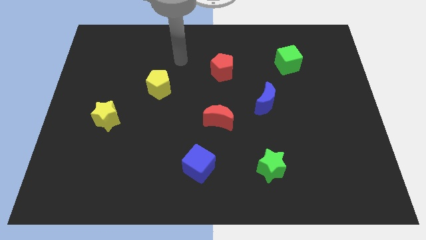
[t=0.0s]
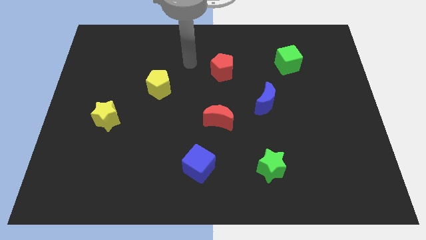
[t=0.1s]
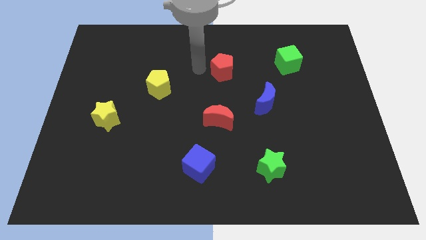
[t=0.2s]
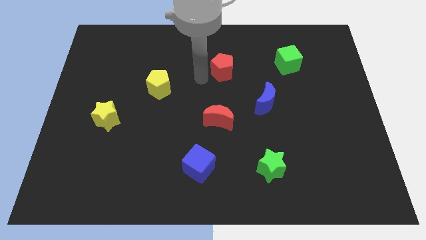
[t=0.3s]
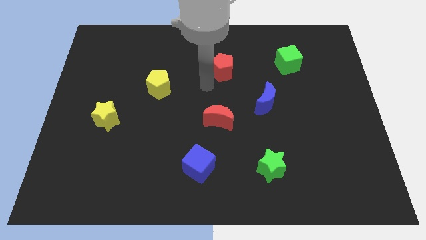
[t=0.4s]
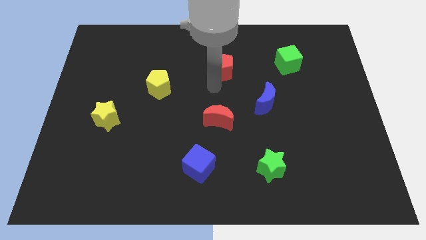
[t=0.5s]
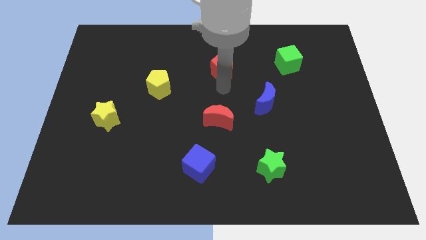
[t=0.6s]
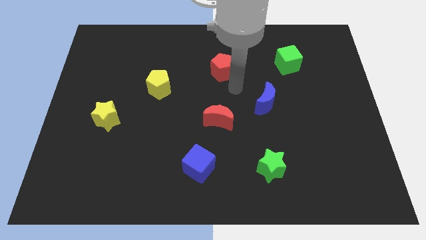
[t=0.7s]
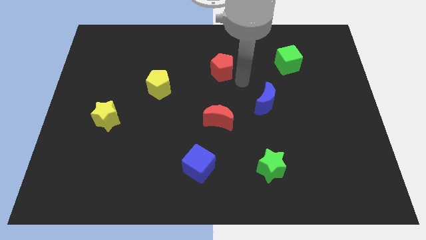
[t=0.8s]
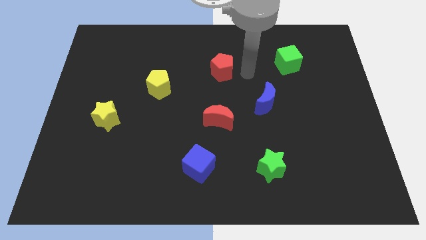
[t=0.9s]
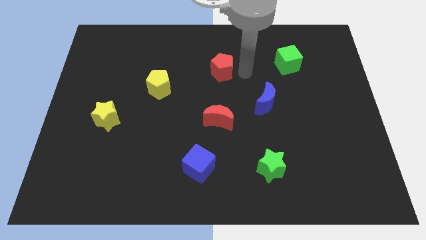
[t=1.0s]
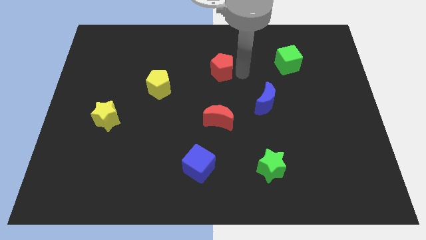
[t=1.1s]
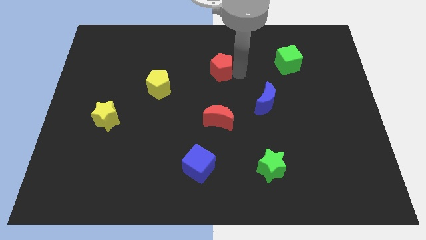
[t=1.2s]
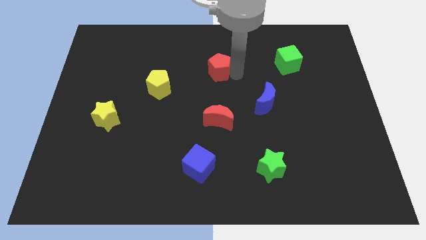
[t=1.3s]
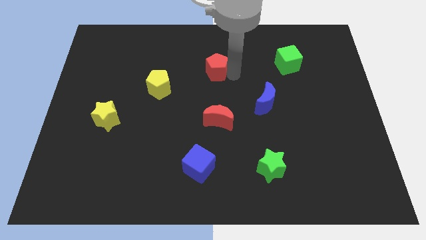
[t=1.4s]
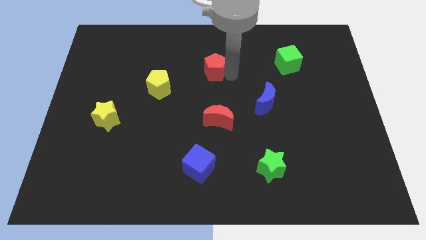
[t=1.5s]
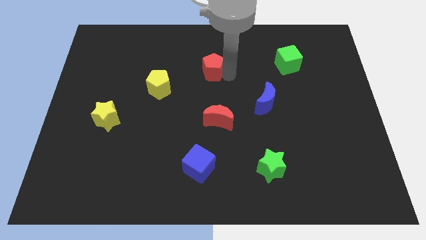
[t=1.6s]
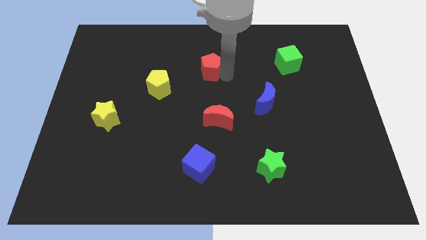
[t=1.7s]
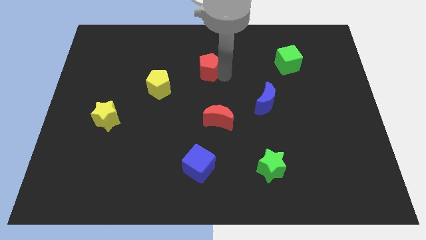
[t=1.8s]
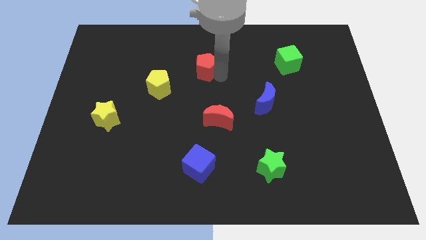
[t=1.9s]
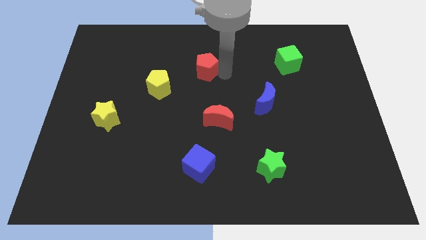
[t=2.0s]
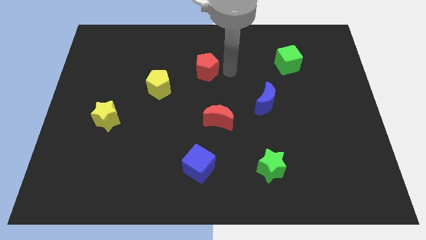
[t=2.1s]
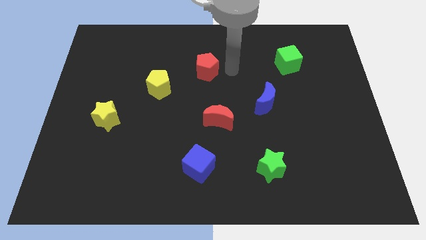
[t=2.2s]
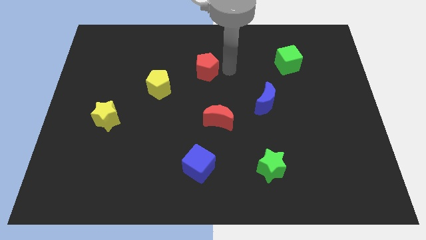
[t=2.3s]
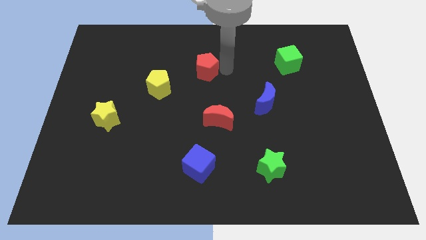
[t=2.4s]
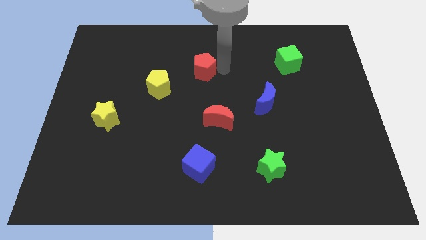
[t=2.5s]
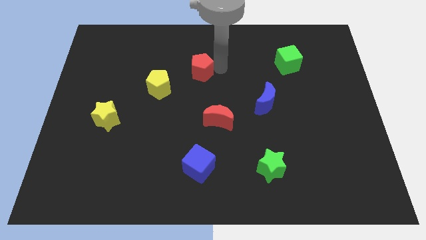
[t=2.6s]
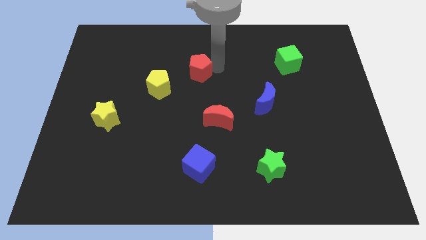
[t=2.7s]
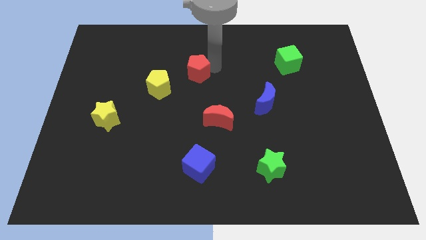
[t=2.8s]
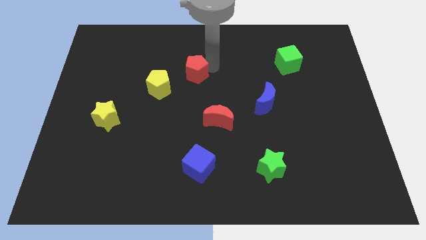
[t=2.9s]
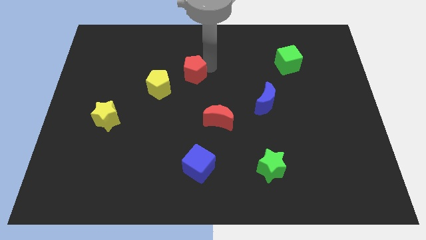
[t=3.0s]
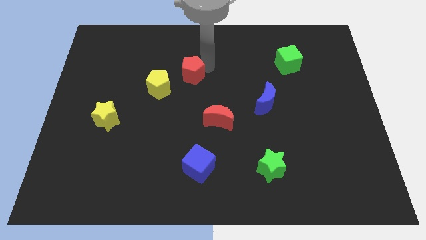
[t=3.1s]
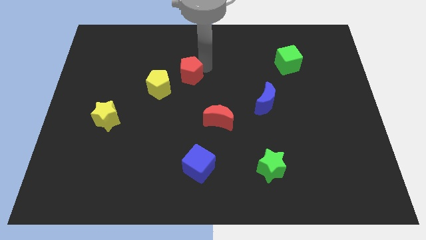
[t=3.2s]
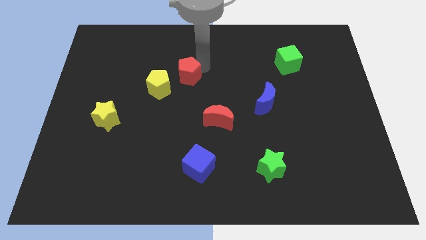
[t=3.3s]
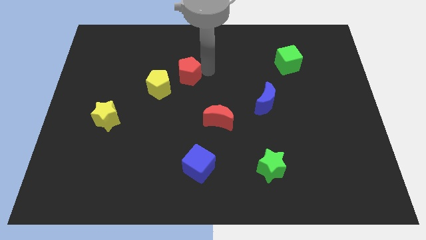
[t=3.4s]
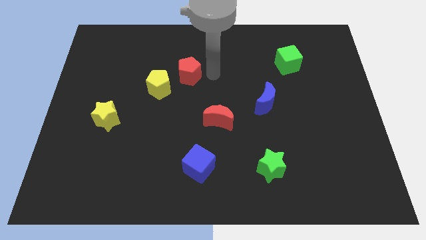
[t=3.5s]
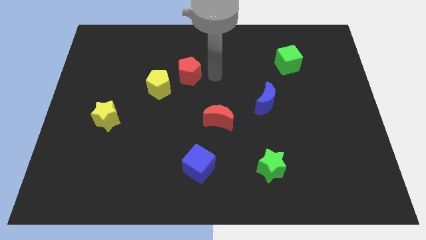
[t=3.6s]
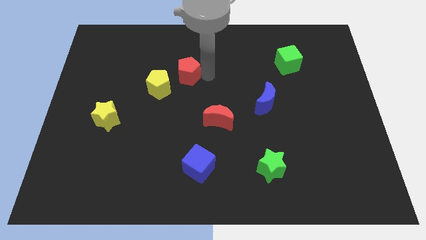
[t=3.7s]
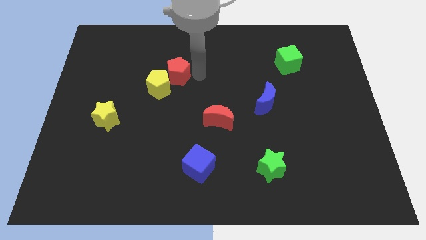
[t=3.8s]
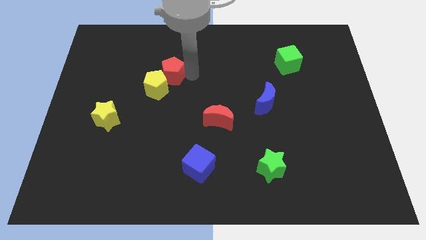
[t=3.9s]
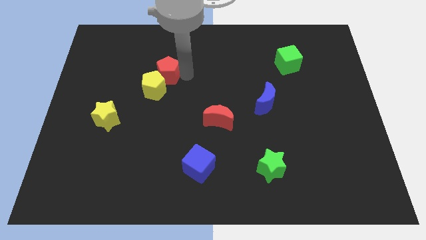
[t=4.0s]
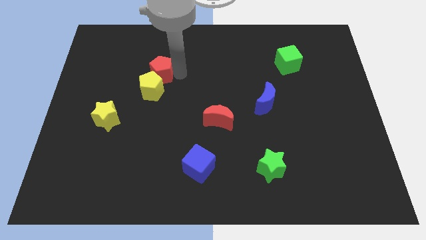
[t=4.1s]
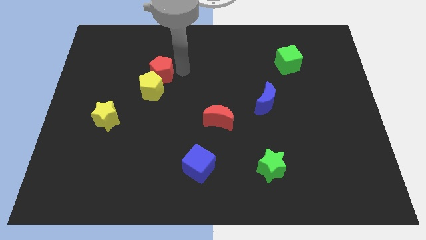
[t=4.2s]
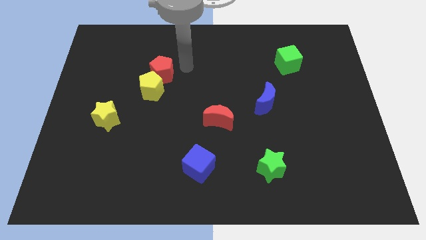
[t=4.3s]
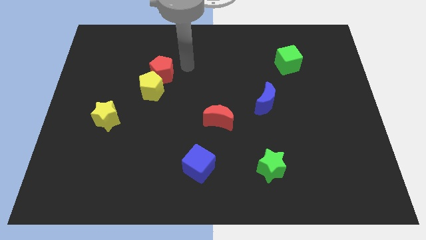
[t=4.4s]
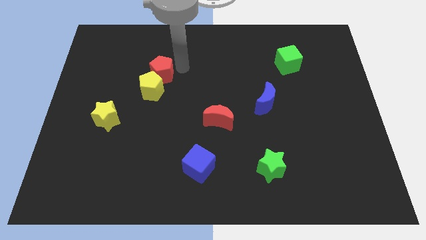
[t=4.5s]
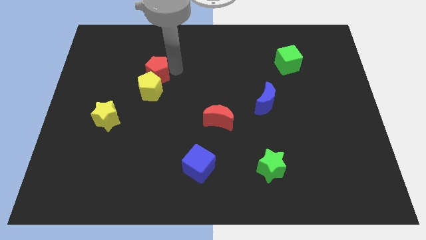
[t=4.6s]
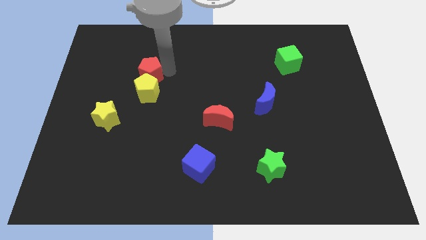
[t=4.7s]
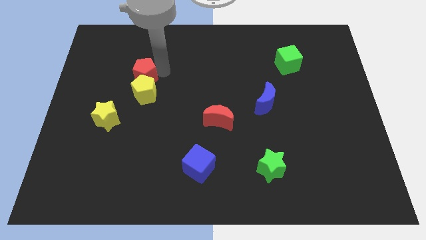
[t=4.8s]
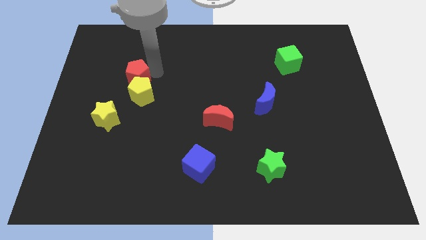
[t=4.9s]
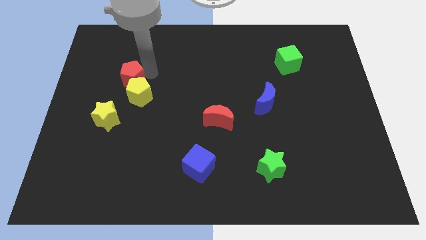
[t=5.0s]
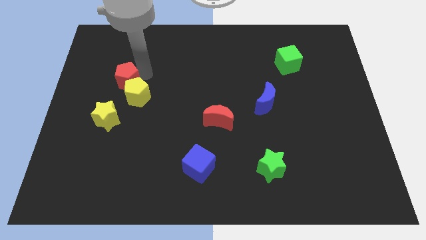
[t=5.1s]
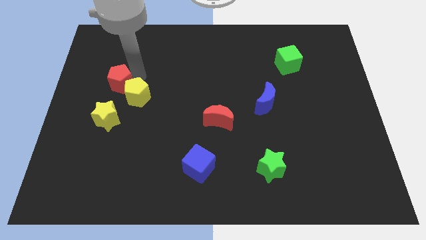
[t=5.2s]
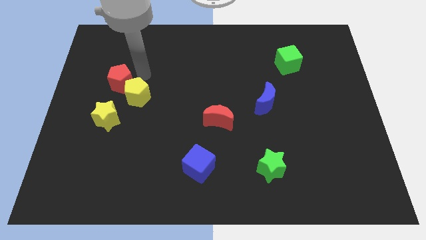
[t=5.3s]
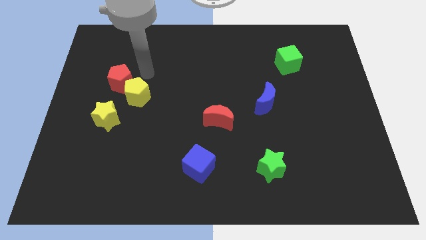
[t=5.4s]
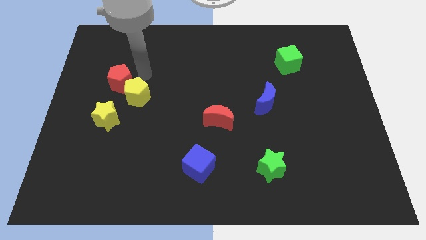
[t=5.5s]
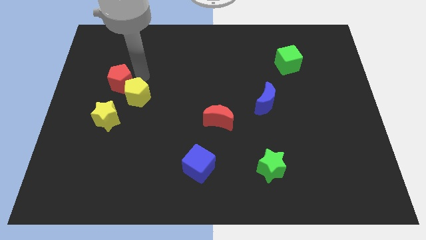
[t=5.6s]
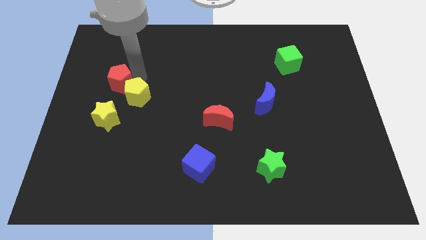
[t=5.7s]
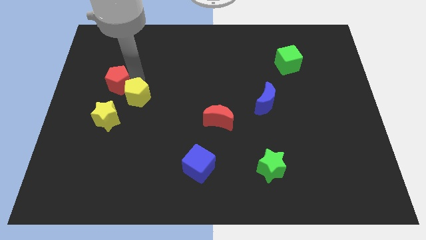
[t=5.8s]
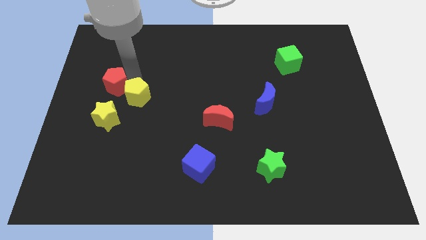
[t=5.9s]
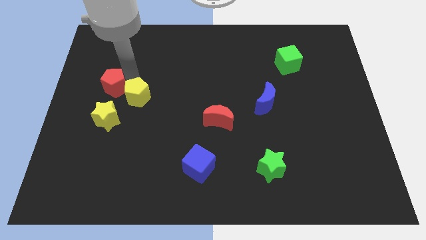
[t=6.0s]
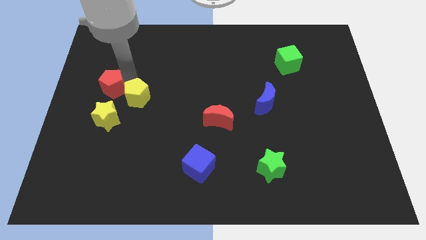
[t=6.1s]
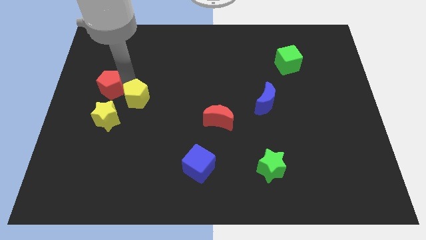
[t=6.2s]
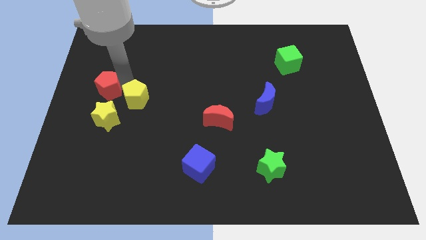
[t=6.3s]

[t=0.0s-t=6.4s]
slide the red pentagon to the left side of the board
